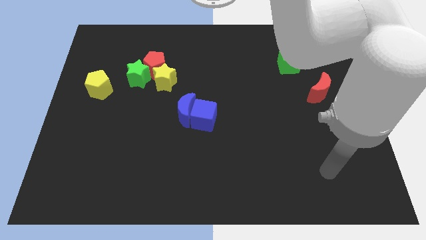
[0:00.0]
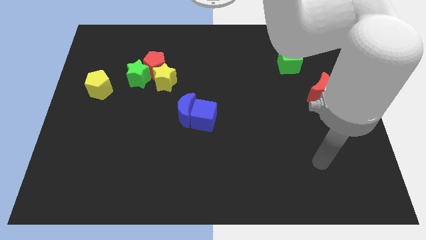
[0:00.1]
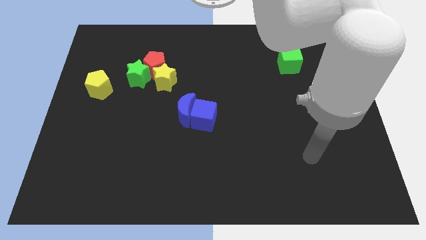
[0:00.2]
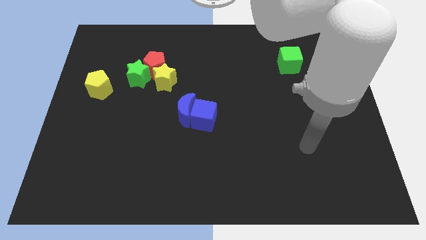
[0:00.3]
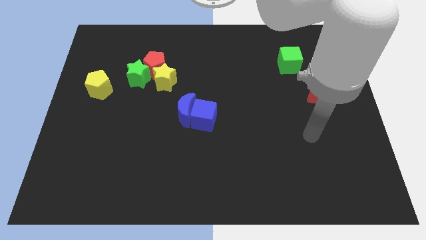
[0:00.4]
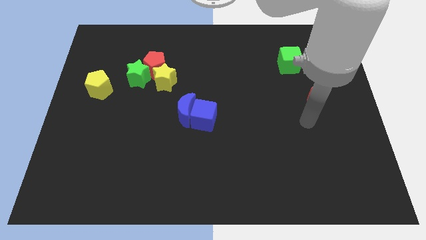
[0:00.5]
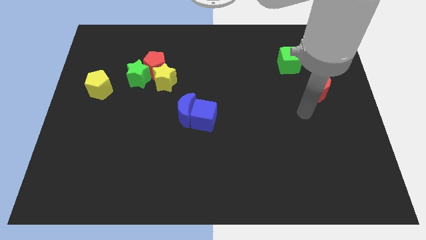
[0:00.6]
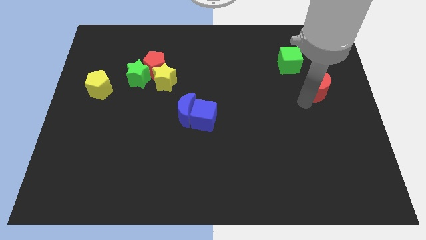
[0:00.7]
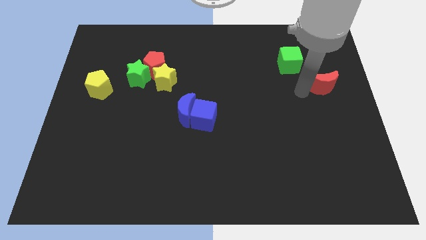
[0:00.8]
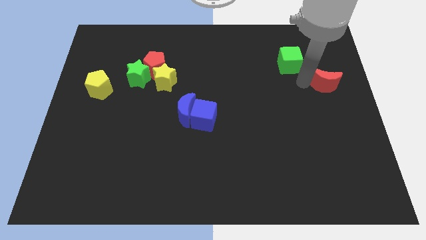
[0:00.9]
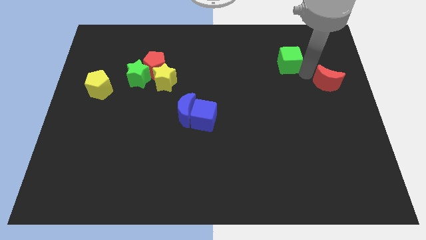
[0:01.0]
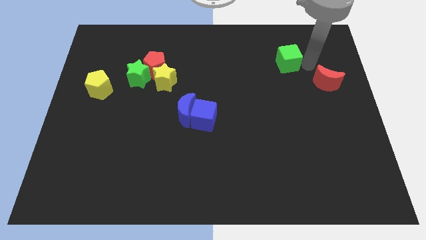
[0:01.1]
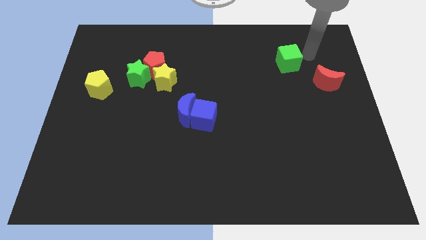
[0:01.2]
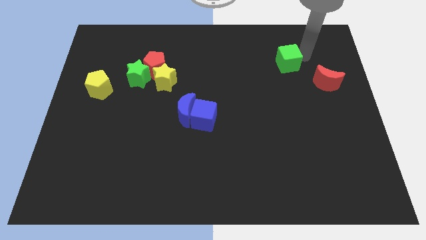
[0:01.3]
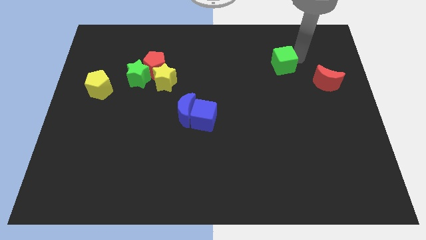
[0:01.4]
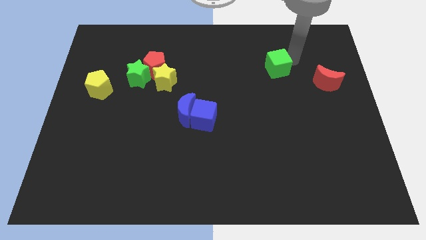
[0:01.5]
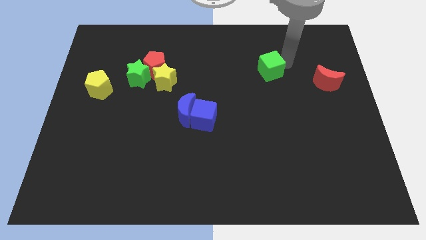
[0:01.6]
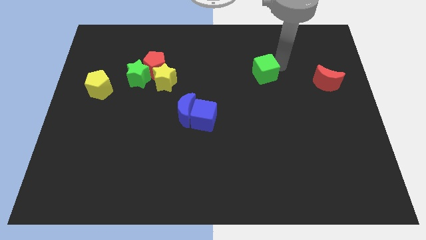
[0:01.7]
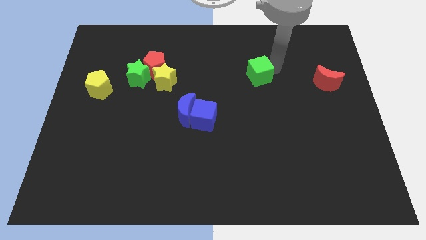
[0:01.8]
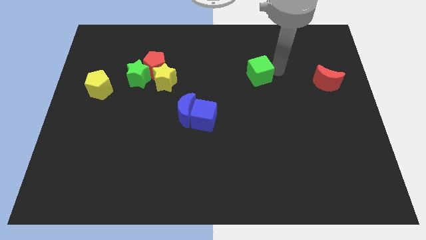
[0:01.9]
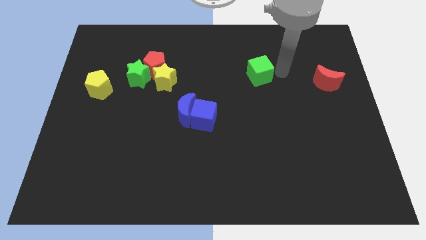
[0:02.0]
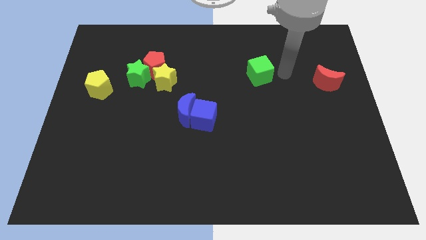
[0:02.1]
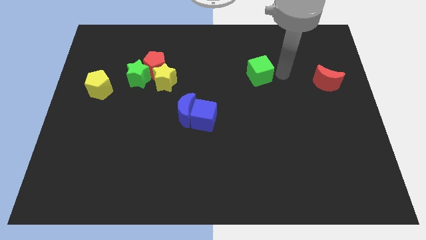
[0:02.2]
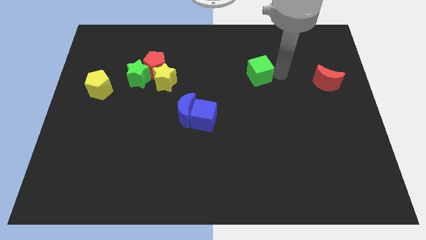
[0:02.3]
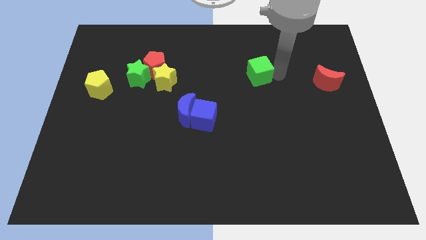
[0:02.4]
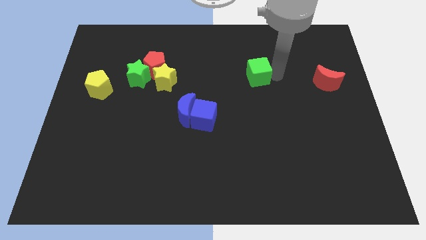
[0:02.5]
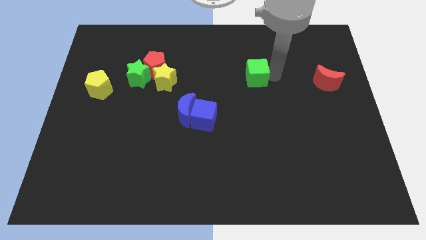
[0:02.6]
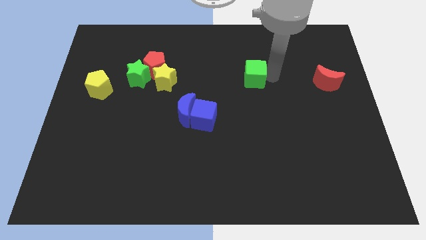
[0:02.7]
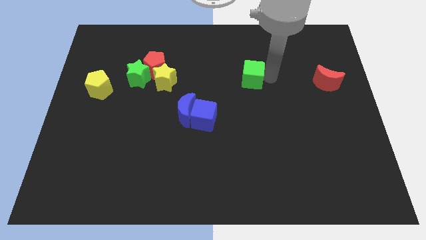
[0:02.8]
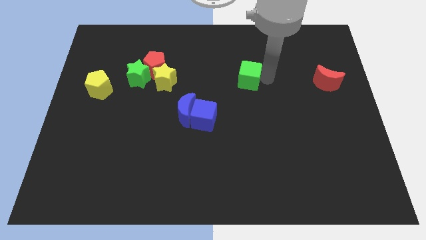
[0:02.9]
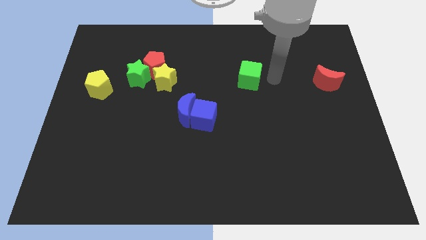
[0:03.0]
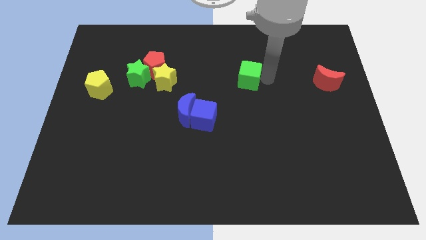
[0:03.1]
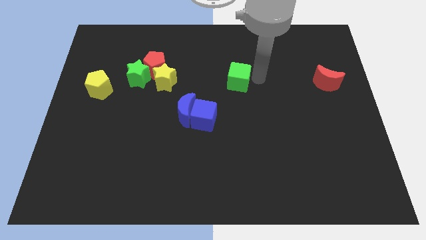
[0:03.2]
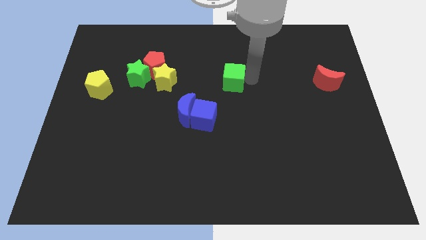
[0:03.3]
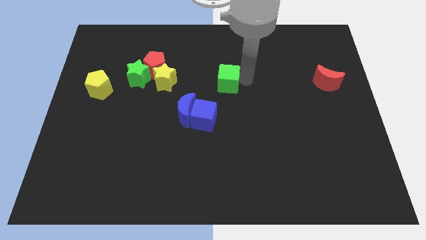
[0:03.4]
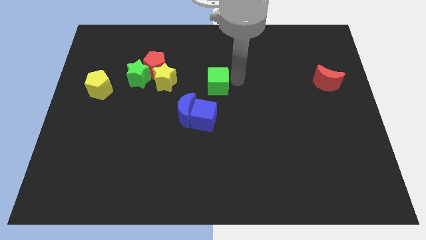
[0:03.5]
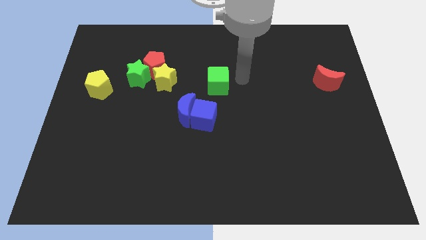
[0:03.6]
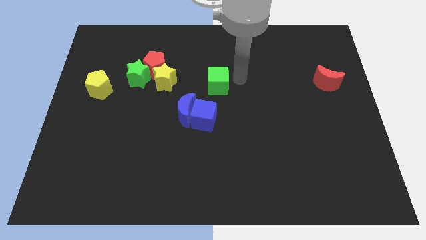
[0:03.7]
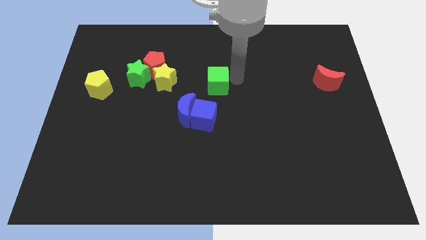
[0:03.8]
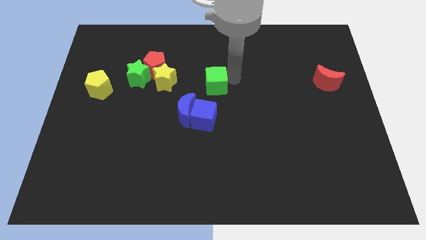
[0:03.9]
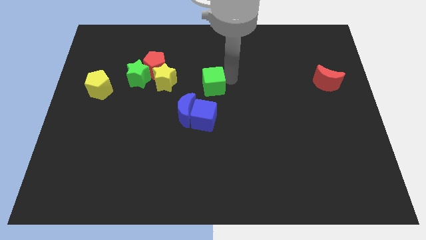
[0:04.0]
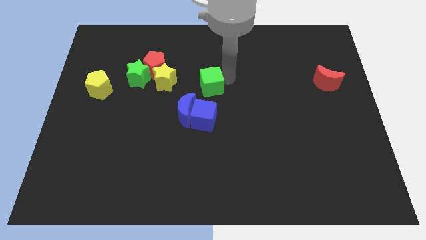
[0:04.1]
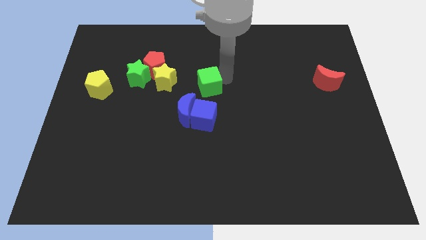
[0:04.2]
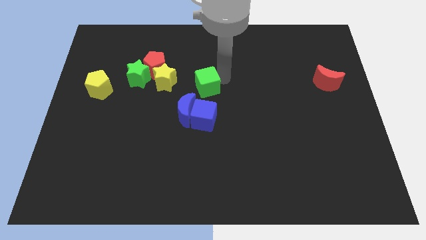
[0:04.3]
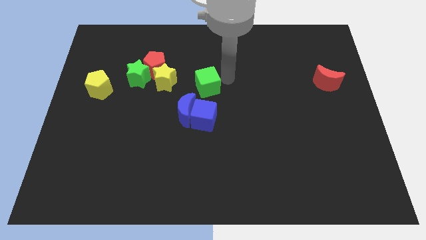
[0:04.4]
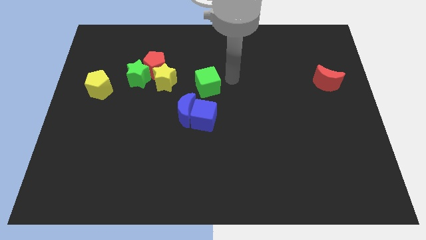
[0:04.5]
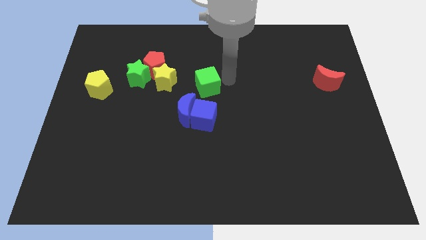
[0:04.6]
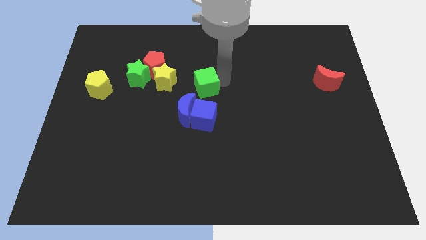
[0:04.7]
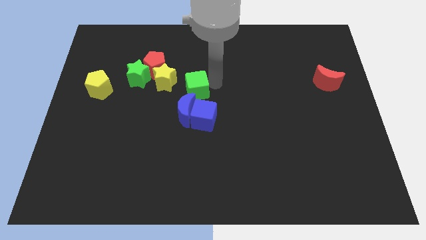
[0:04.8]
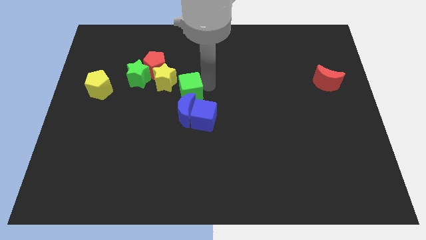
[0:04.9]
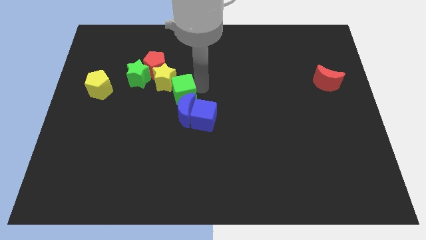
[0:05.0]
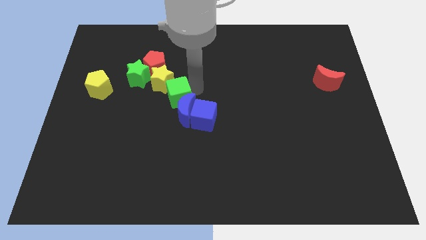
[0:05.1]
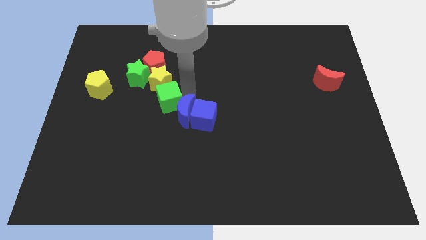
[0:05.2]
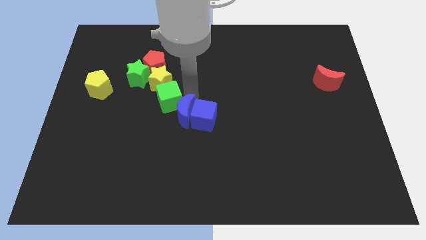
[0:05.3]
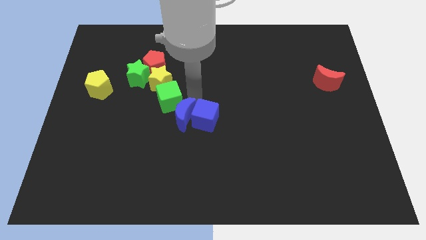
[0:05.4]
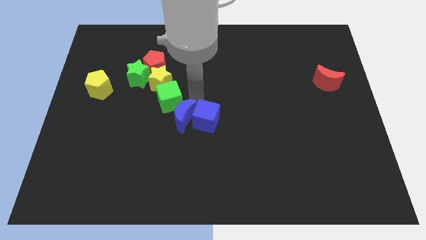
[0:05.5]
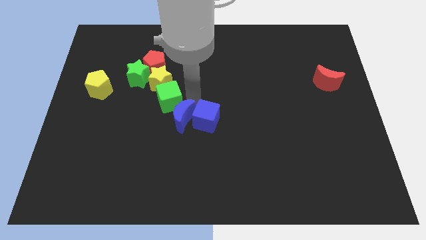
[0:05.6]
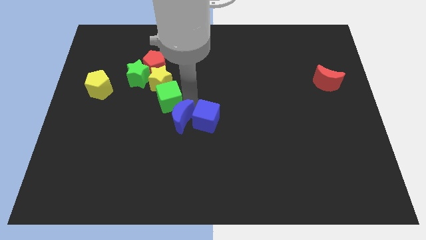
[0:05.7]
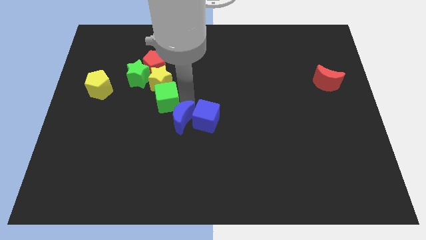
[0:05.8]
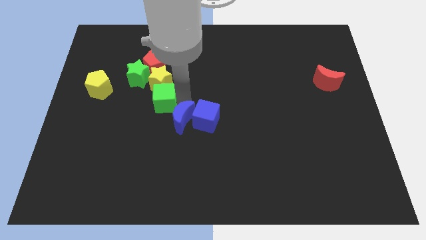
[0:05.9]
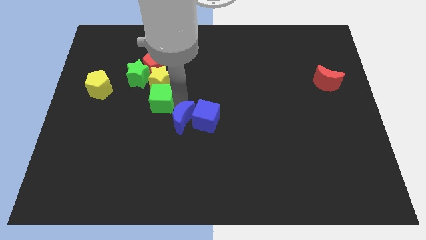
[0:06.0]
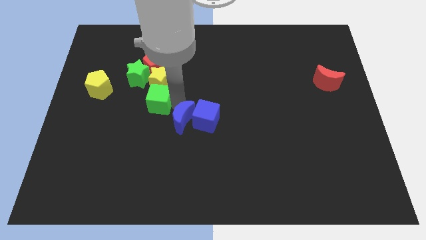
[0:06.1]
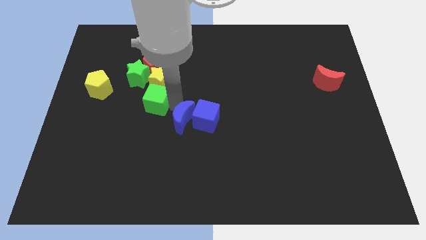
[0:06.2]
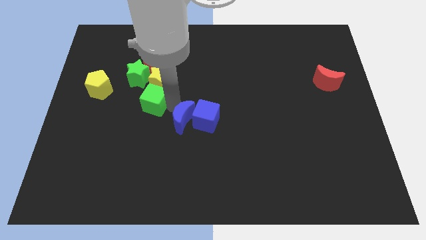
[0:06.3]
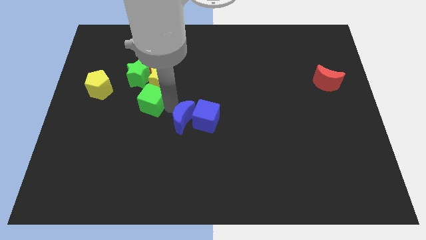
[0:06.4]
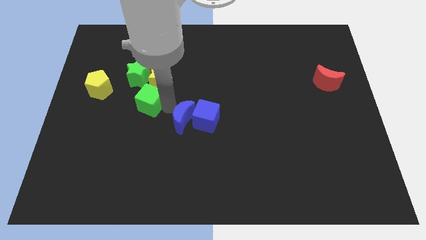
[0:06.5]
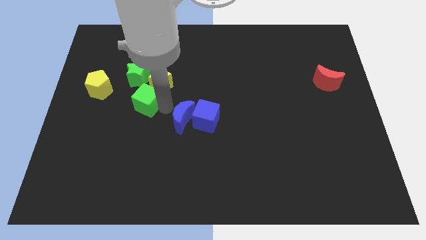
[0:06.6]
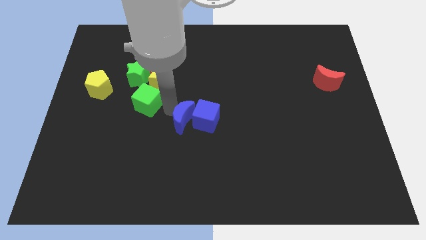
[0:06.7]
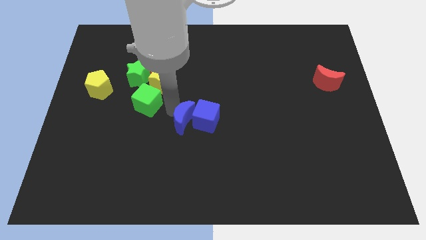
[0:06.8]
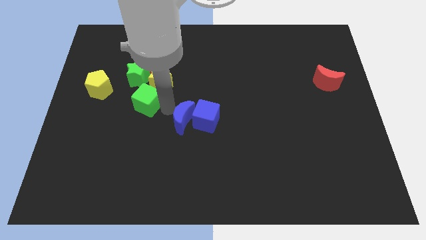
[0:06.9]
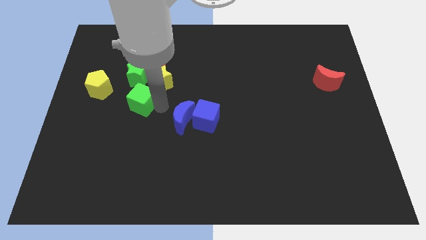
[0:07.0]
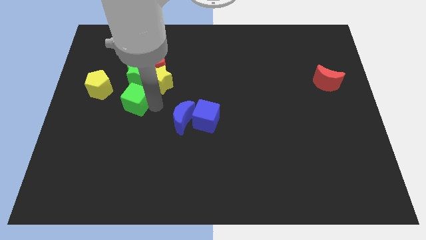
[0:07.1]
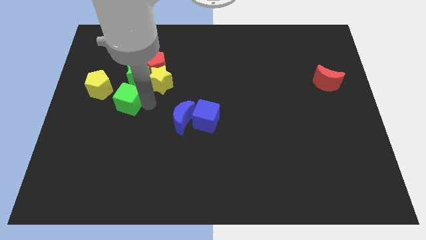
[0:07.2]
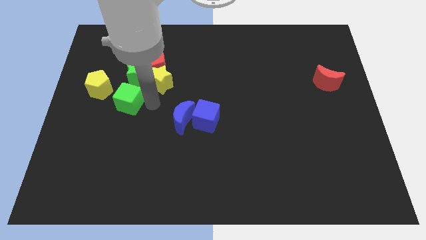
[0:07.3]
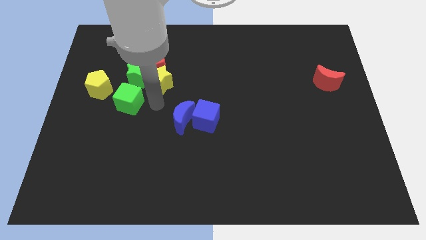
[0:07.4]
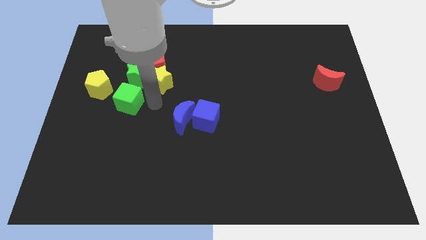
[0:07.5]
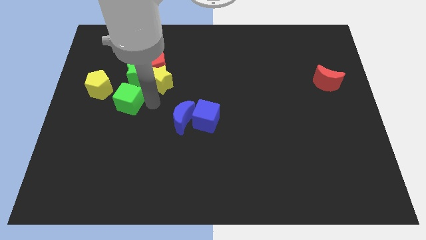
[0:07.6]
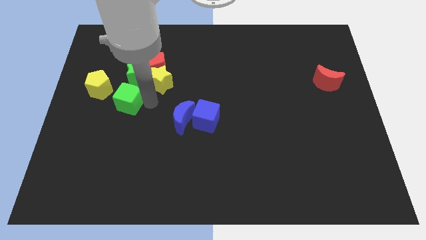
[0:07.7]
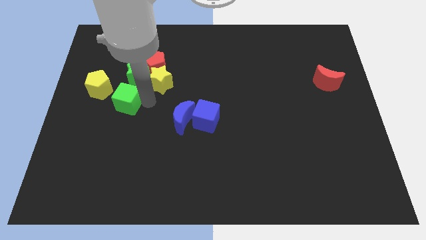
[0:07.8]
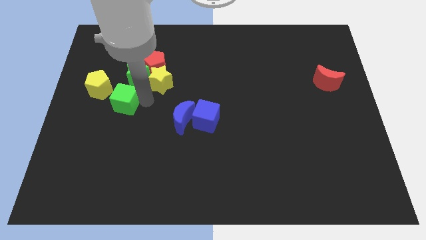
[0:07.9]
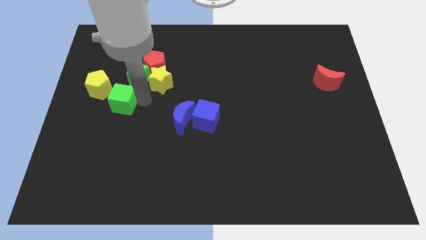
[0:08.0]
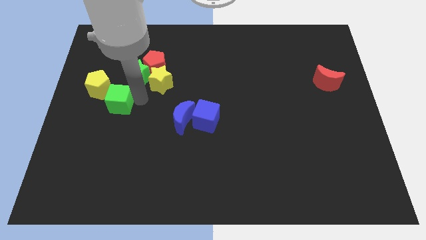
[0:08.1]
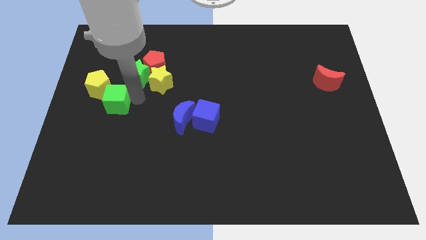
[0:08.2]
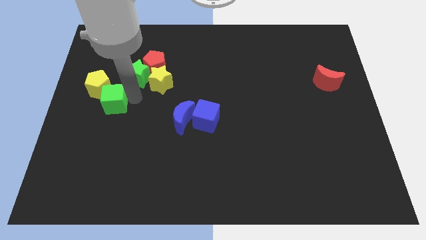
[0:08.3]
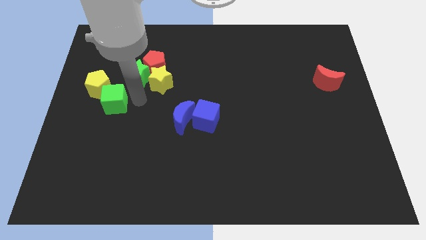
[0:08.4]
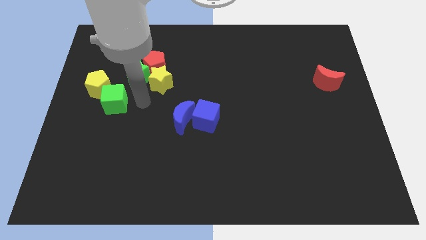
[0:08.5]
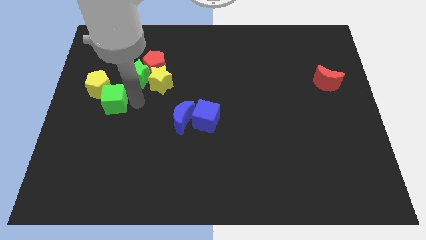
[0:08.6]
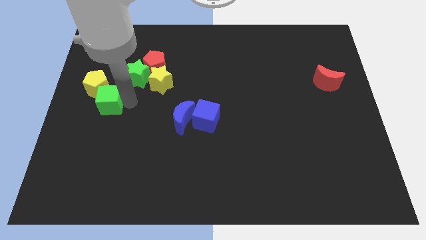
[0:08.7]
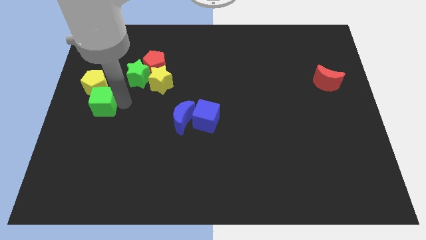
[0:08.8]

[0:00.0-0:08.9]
slide the green cube to the left side of the board
